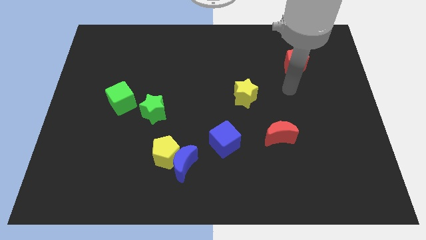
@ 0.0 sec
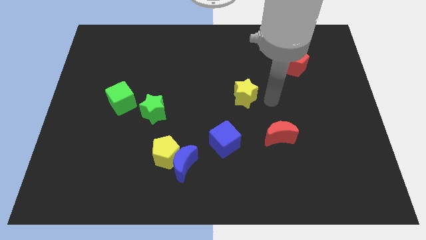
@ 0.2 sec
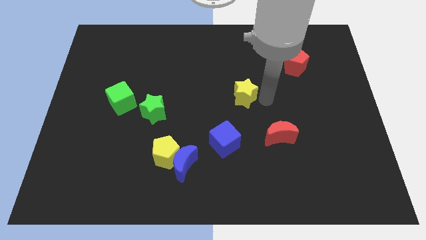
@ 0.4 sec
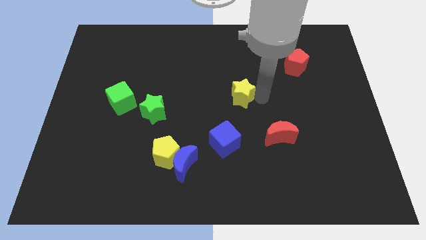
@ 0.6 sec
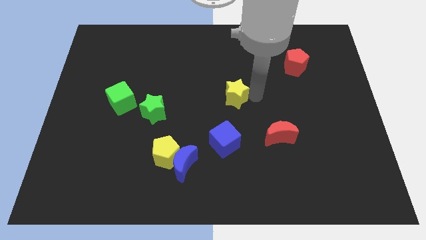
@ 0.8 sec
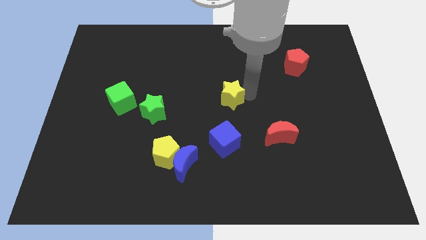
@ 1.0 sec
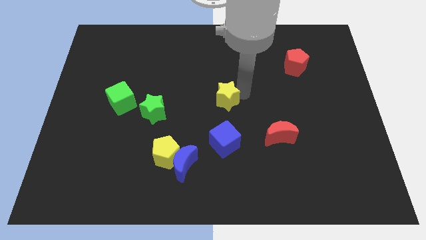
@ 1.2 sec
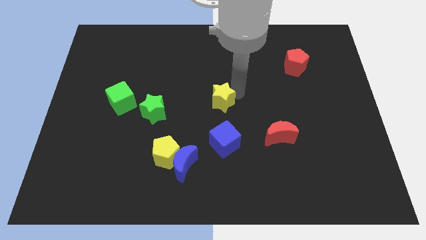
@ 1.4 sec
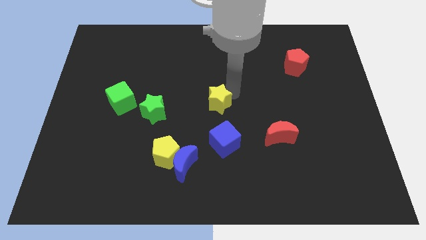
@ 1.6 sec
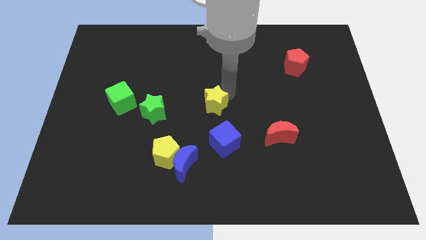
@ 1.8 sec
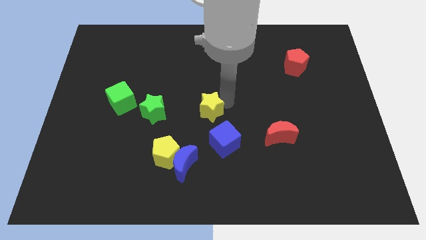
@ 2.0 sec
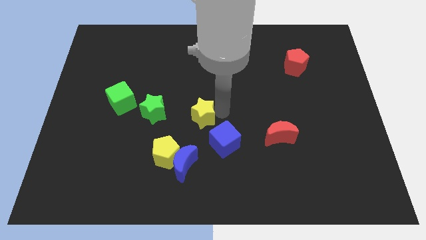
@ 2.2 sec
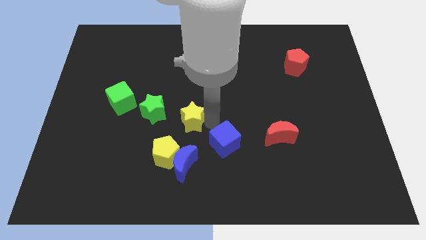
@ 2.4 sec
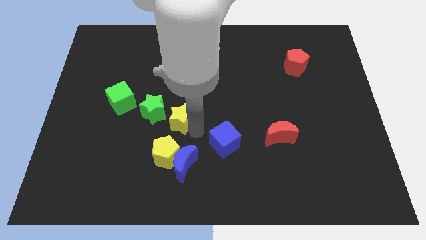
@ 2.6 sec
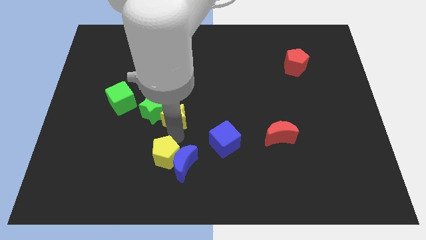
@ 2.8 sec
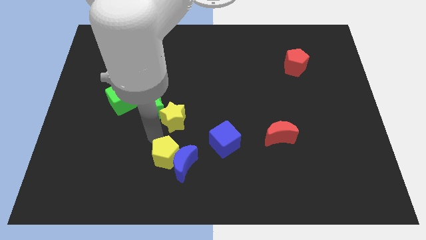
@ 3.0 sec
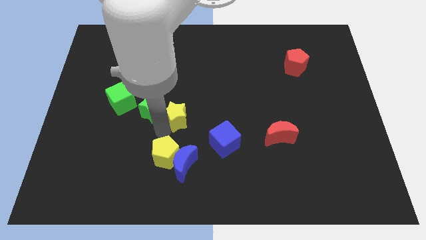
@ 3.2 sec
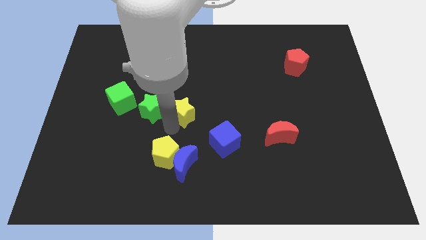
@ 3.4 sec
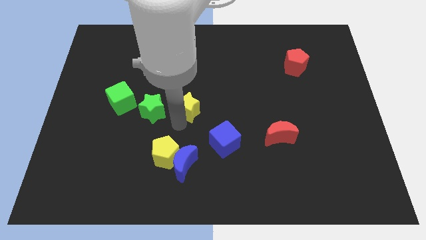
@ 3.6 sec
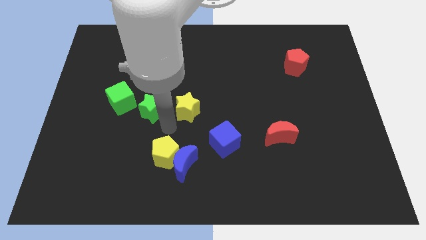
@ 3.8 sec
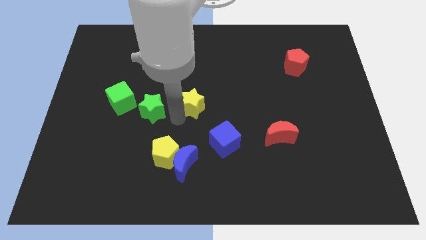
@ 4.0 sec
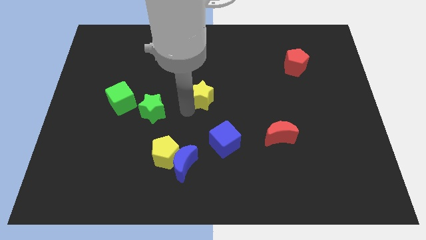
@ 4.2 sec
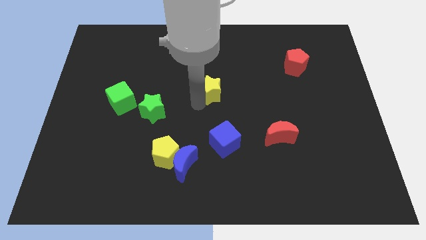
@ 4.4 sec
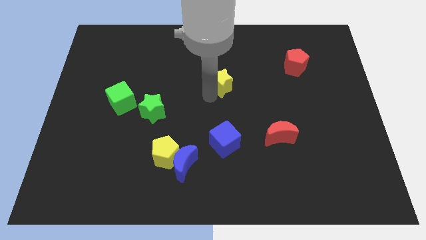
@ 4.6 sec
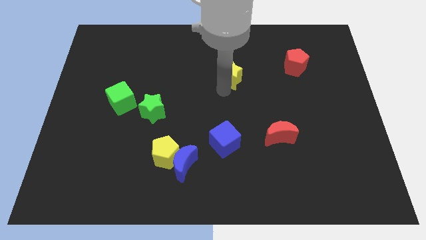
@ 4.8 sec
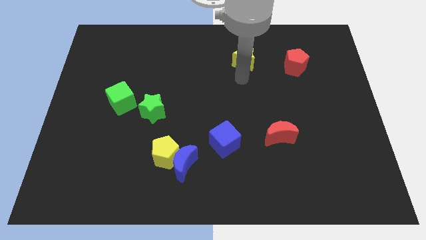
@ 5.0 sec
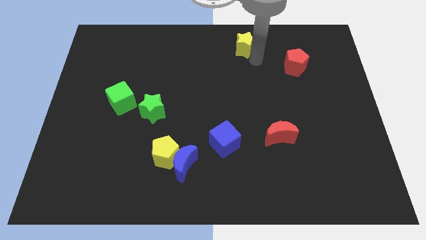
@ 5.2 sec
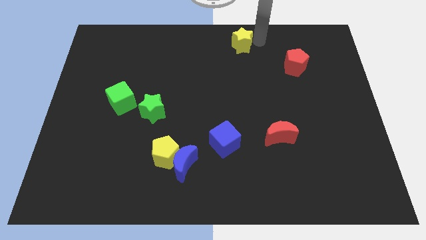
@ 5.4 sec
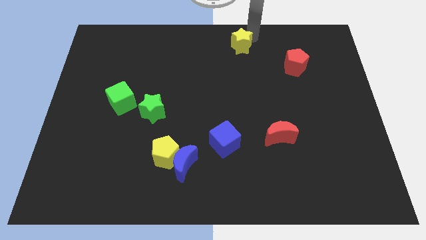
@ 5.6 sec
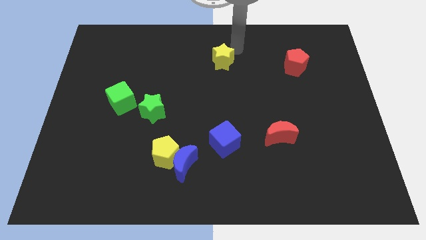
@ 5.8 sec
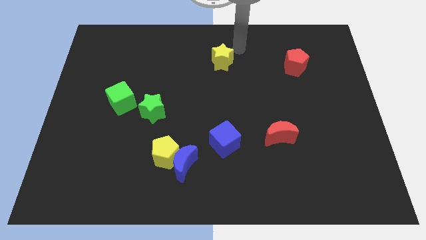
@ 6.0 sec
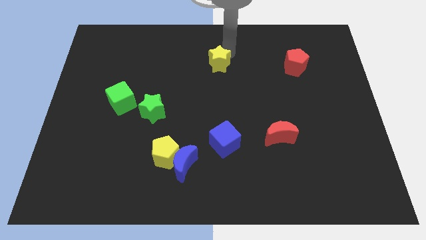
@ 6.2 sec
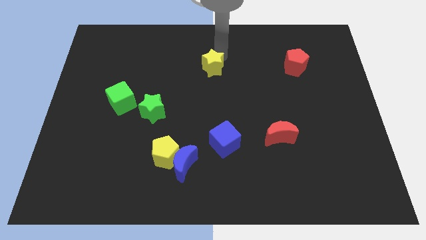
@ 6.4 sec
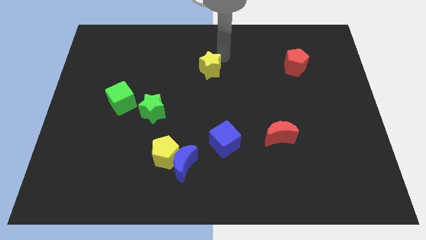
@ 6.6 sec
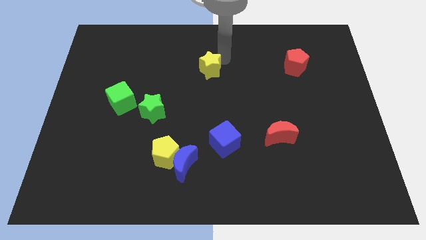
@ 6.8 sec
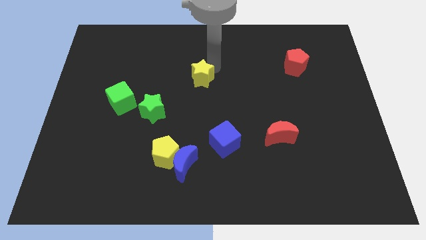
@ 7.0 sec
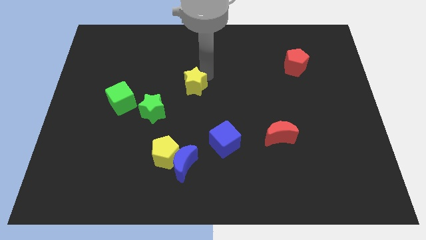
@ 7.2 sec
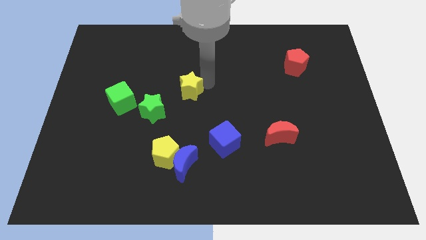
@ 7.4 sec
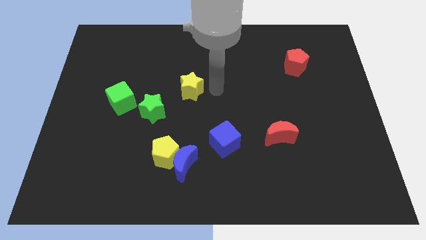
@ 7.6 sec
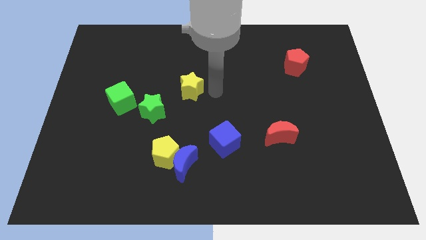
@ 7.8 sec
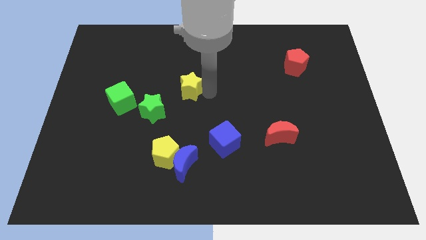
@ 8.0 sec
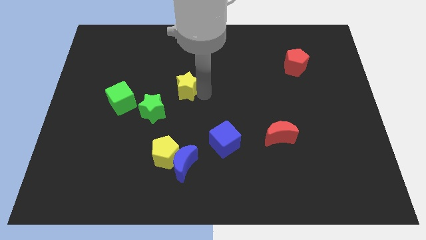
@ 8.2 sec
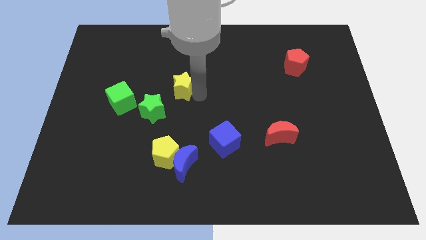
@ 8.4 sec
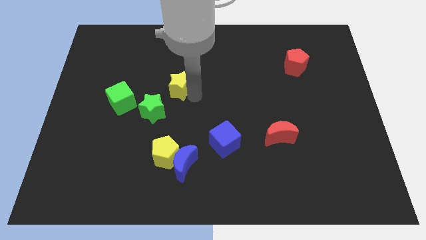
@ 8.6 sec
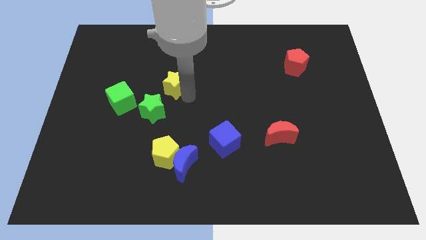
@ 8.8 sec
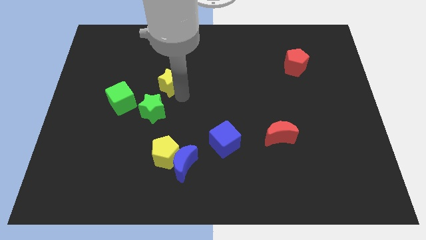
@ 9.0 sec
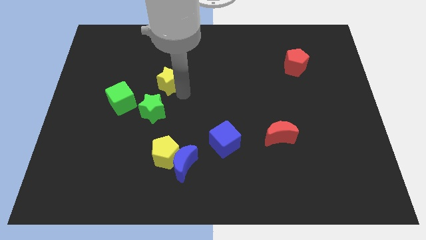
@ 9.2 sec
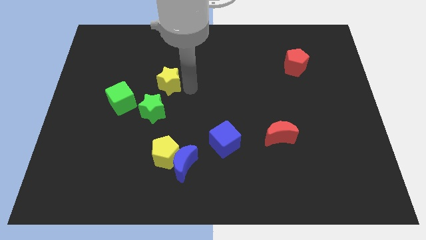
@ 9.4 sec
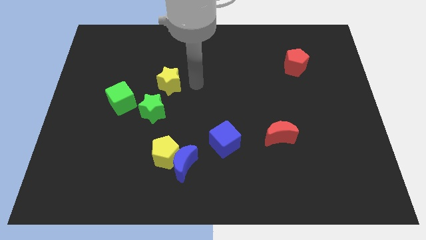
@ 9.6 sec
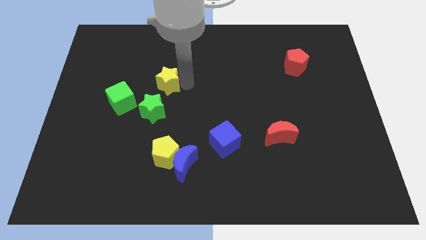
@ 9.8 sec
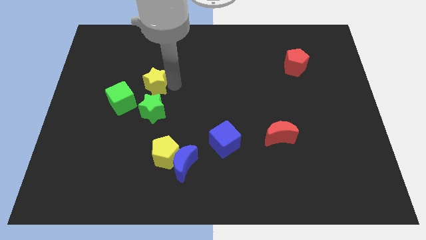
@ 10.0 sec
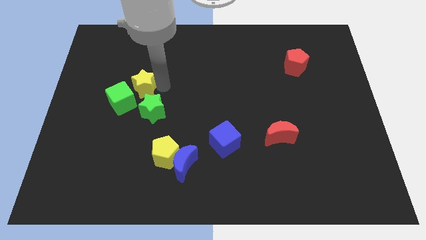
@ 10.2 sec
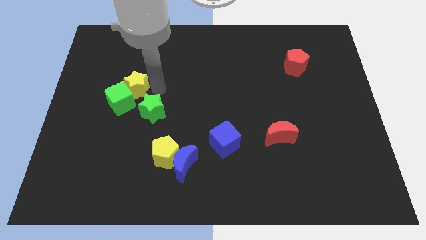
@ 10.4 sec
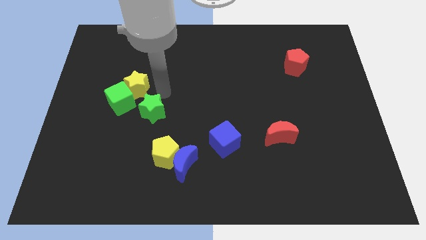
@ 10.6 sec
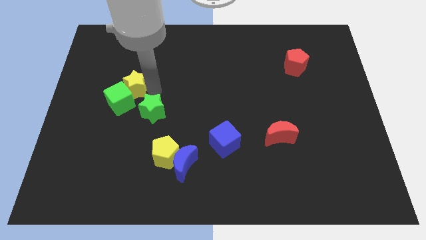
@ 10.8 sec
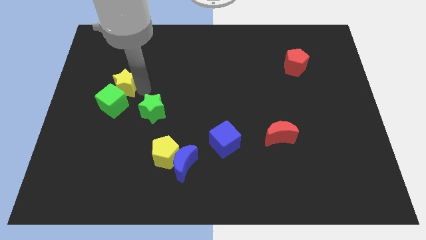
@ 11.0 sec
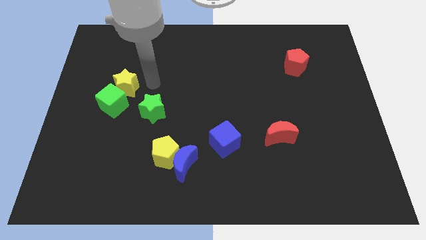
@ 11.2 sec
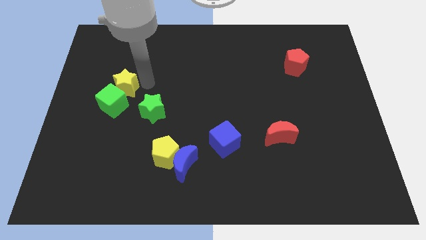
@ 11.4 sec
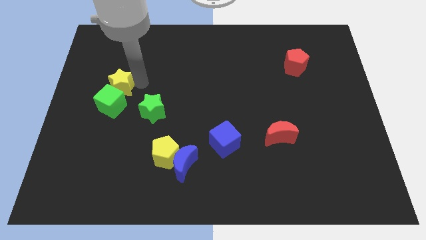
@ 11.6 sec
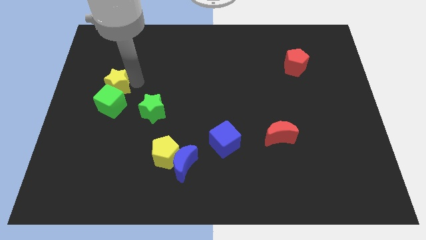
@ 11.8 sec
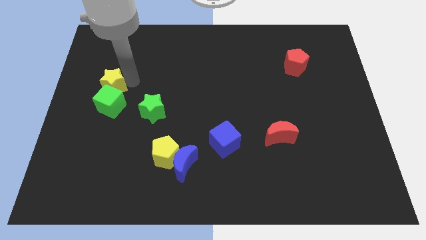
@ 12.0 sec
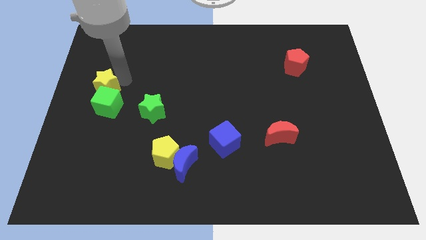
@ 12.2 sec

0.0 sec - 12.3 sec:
slide the yellow star to the center left

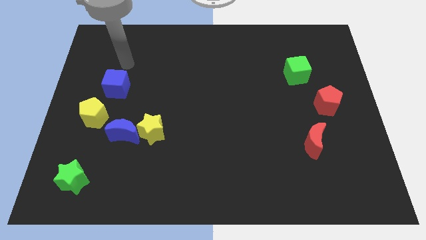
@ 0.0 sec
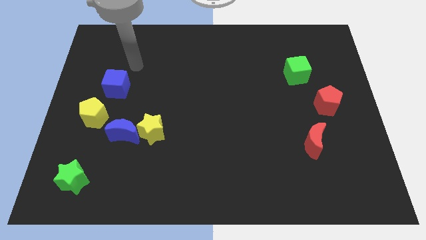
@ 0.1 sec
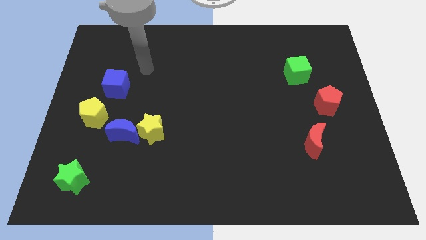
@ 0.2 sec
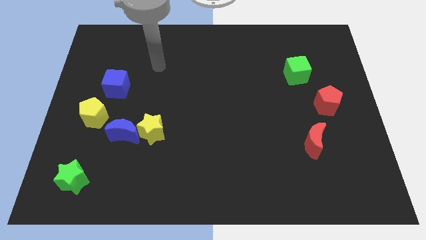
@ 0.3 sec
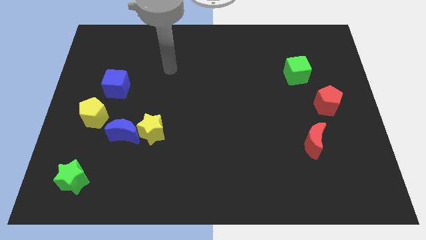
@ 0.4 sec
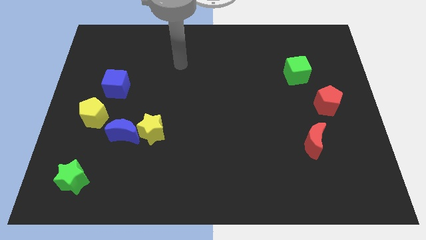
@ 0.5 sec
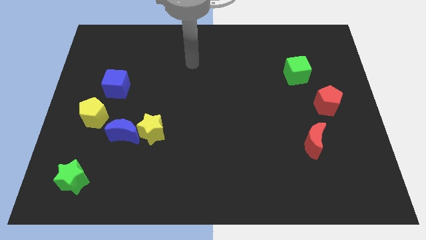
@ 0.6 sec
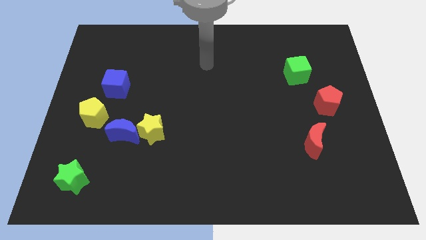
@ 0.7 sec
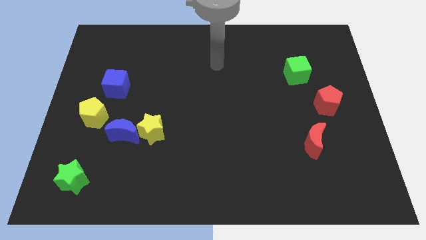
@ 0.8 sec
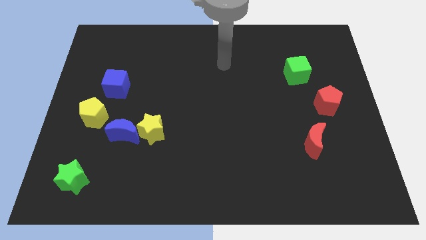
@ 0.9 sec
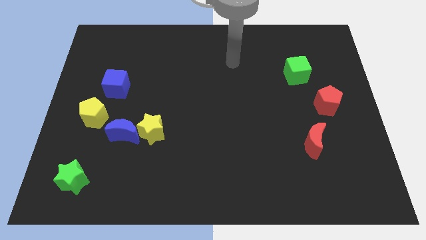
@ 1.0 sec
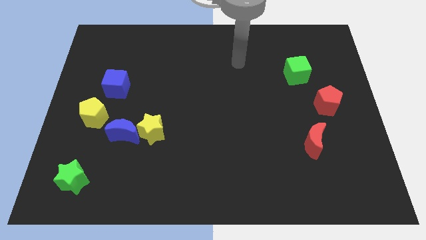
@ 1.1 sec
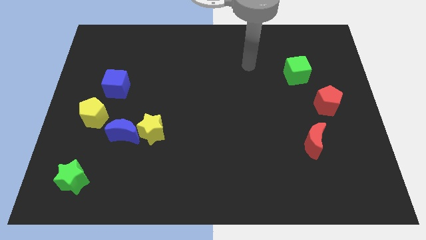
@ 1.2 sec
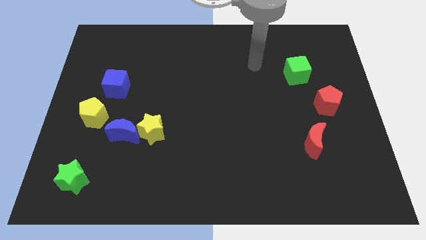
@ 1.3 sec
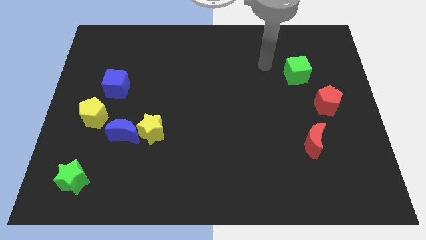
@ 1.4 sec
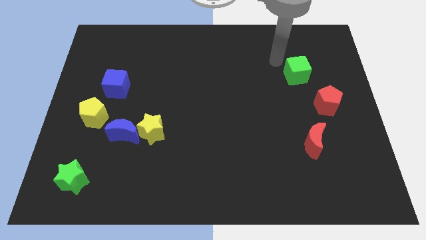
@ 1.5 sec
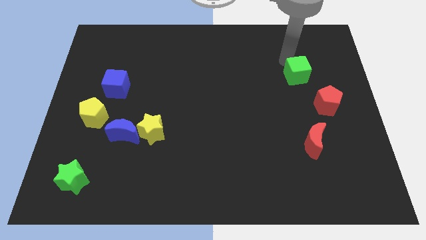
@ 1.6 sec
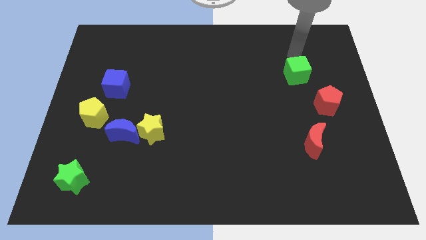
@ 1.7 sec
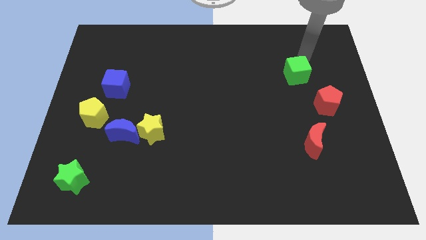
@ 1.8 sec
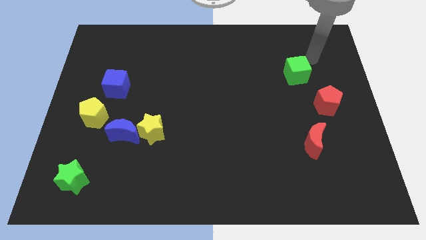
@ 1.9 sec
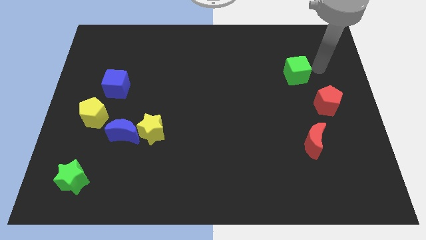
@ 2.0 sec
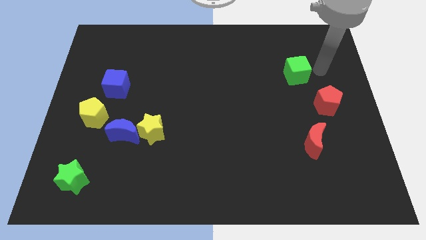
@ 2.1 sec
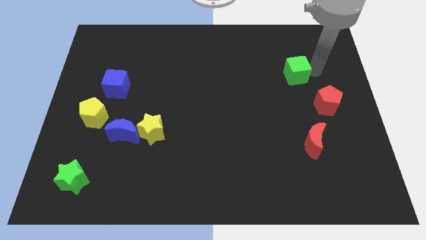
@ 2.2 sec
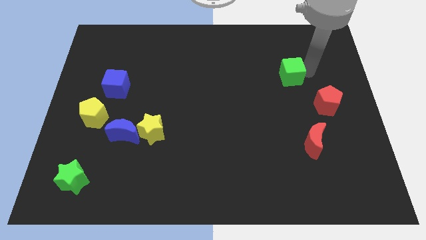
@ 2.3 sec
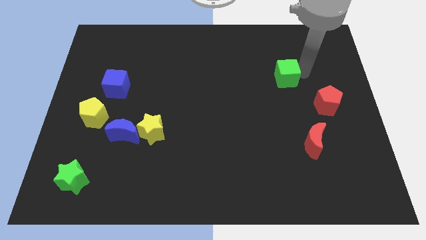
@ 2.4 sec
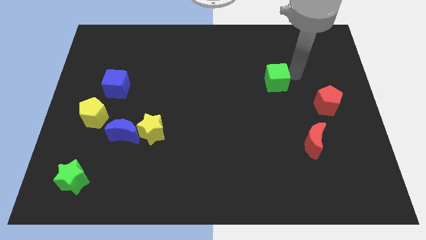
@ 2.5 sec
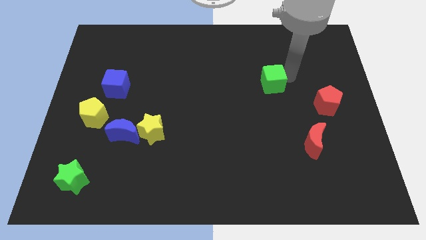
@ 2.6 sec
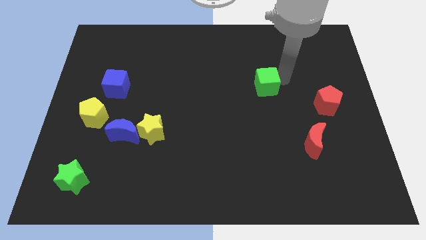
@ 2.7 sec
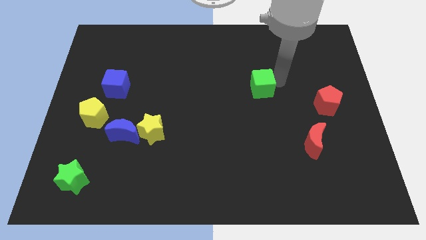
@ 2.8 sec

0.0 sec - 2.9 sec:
push the green cube to the center of the board
